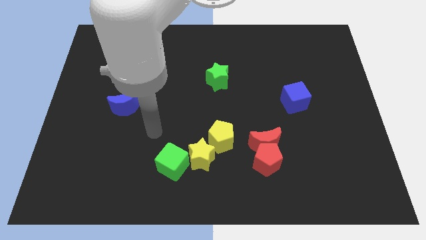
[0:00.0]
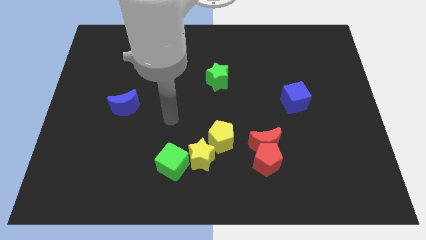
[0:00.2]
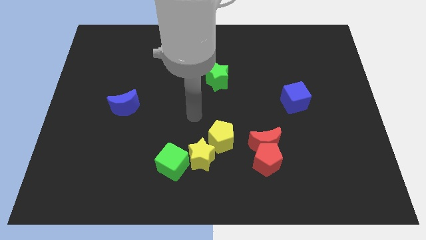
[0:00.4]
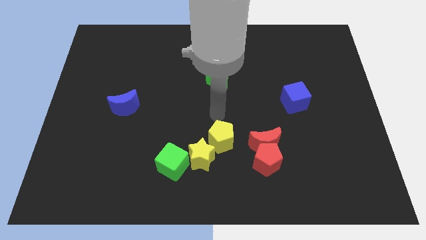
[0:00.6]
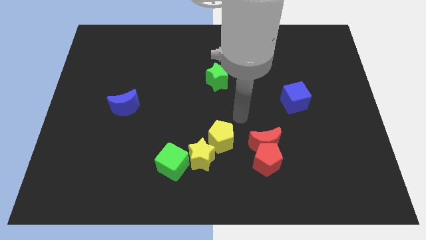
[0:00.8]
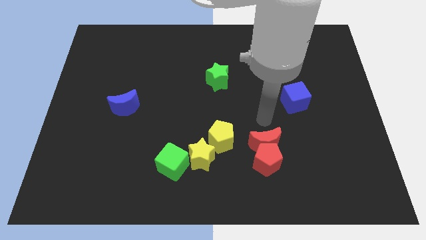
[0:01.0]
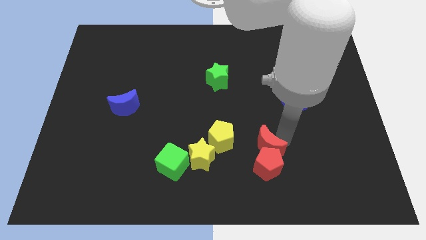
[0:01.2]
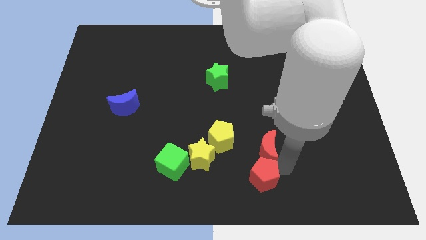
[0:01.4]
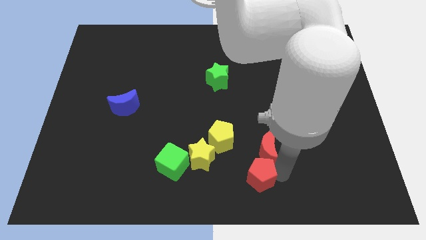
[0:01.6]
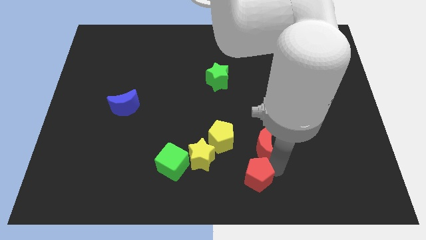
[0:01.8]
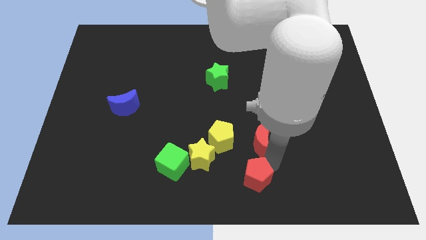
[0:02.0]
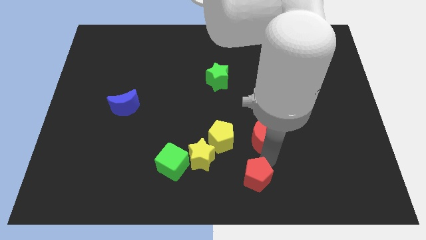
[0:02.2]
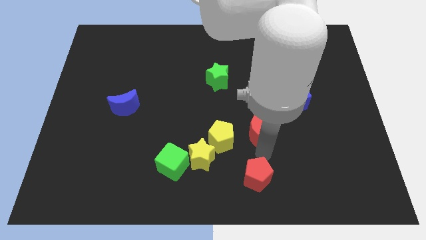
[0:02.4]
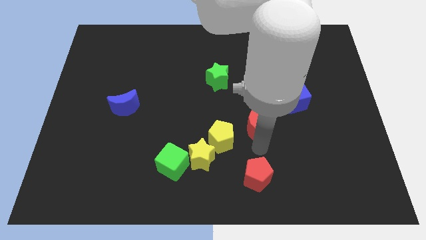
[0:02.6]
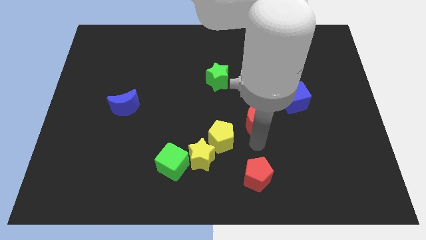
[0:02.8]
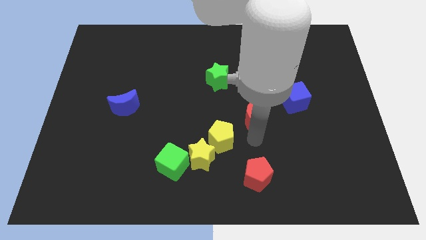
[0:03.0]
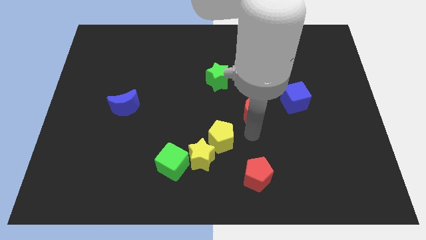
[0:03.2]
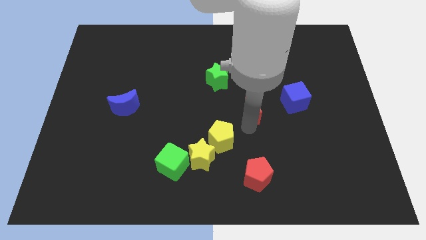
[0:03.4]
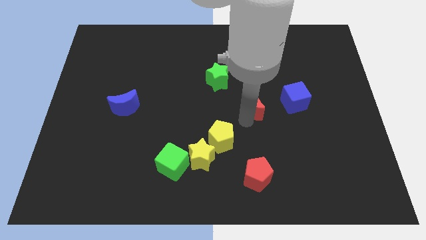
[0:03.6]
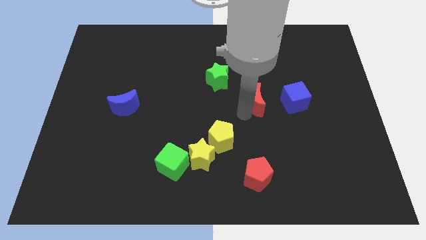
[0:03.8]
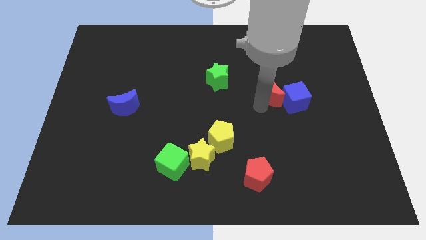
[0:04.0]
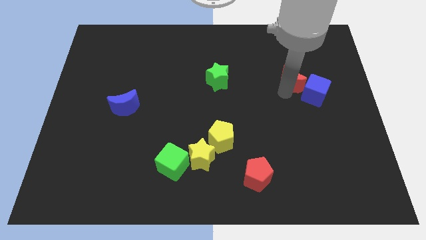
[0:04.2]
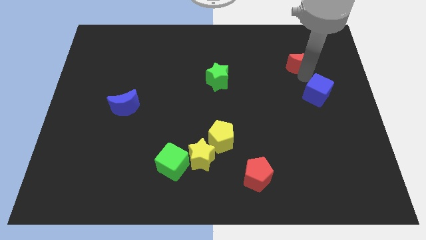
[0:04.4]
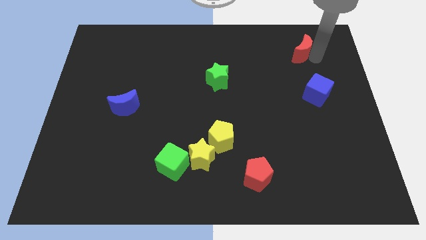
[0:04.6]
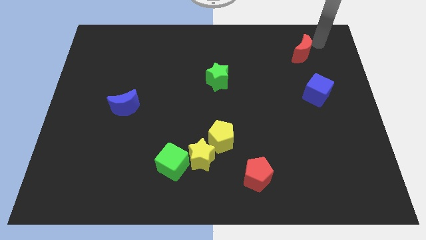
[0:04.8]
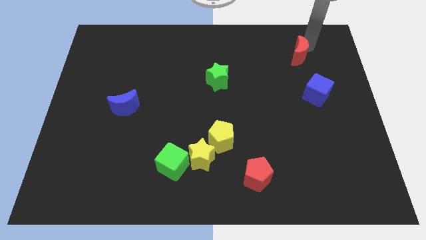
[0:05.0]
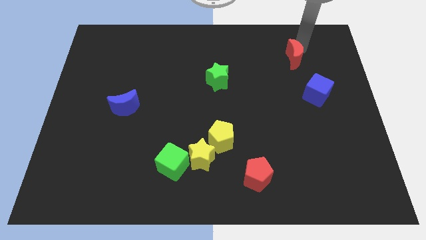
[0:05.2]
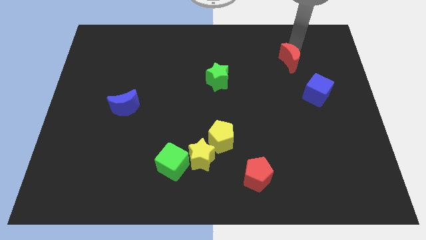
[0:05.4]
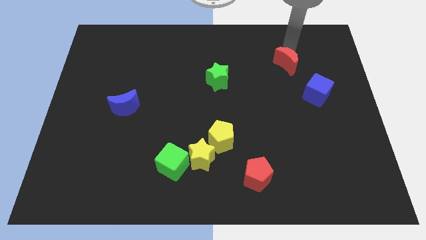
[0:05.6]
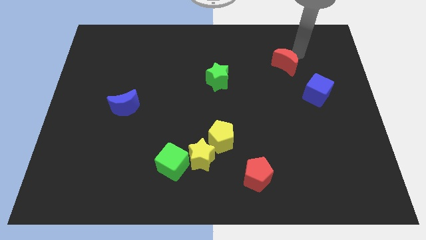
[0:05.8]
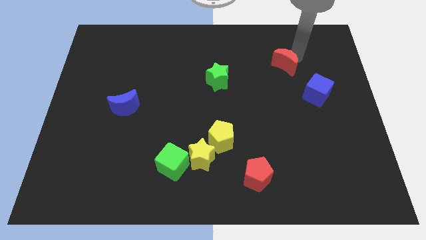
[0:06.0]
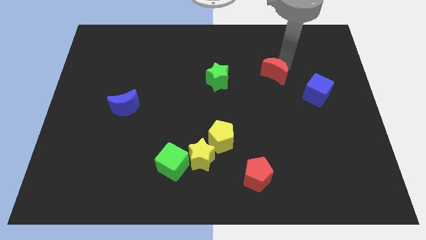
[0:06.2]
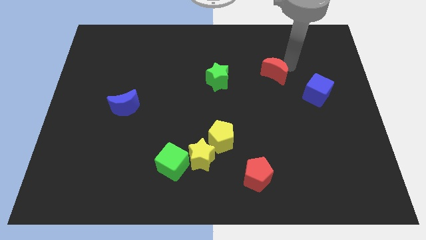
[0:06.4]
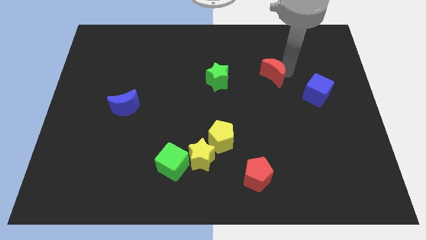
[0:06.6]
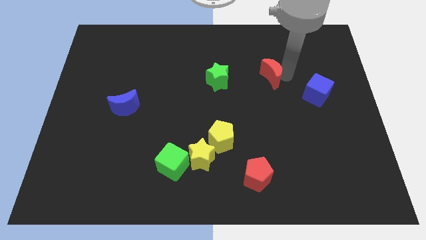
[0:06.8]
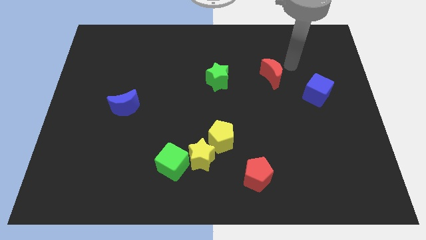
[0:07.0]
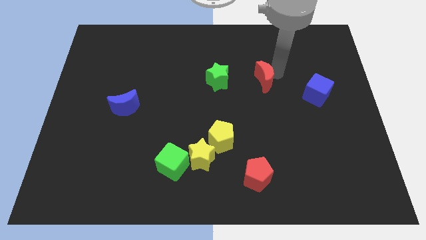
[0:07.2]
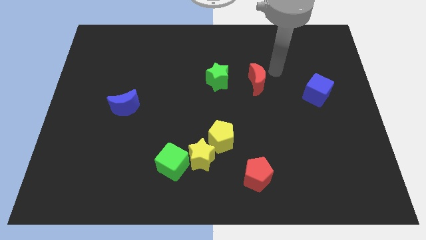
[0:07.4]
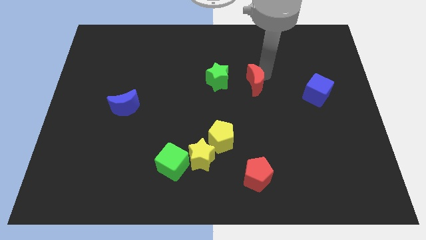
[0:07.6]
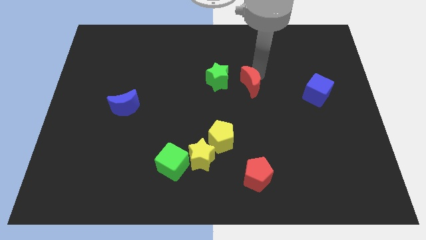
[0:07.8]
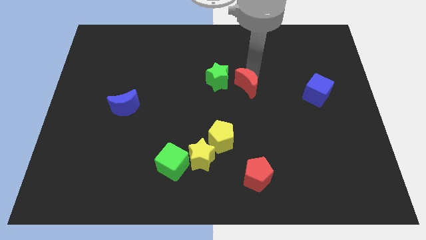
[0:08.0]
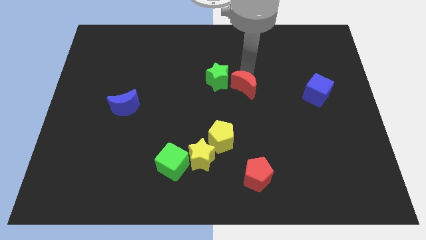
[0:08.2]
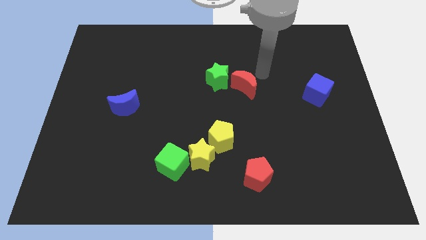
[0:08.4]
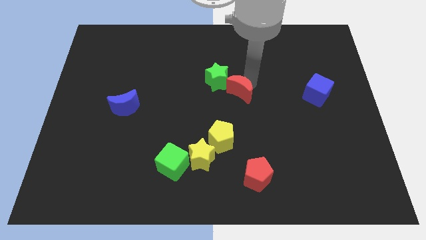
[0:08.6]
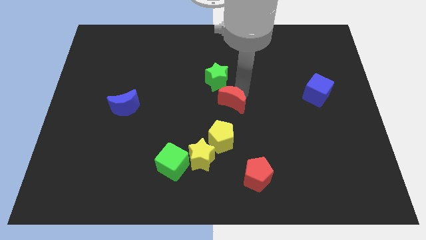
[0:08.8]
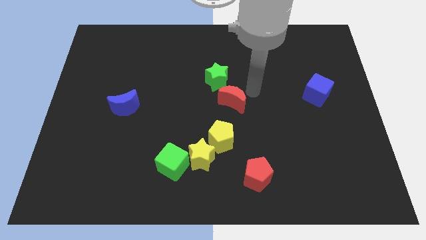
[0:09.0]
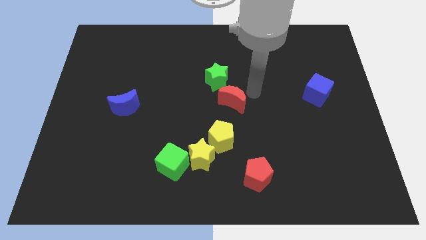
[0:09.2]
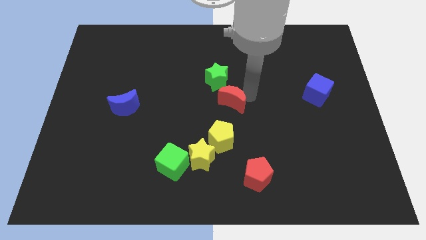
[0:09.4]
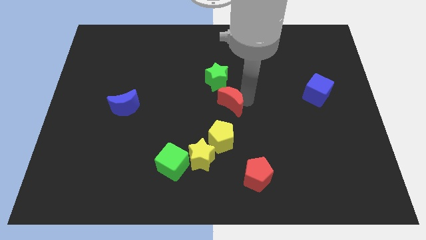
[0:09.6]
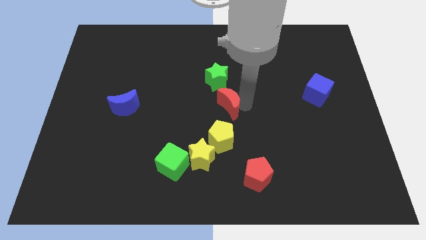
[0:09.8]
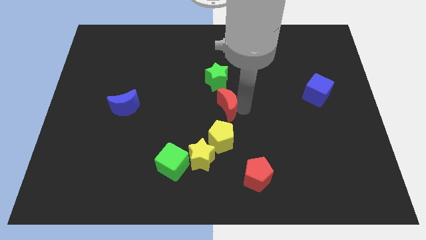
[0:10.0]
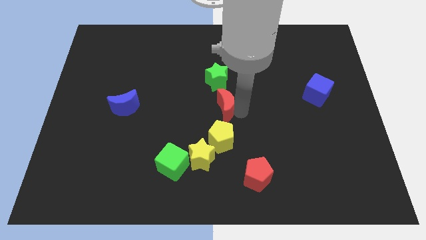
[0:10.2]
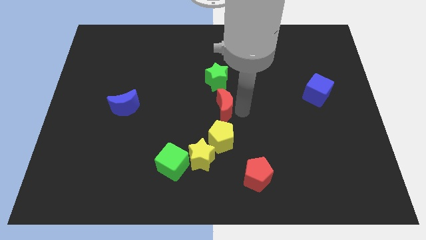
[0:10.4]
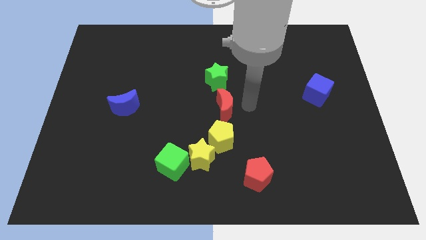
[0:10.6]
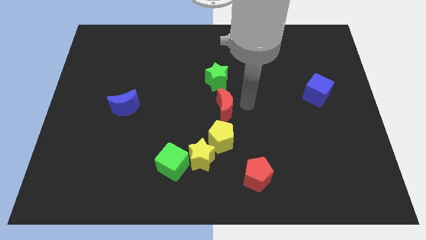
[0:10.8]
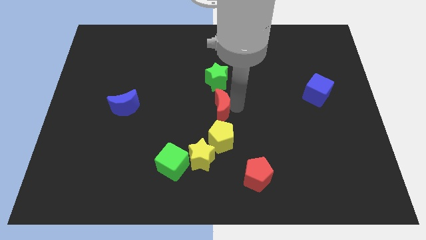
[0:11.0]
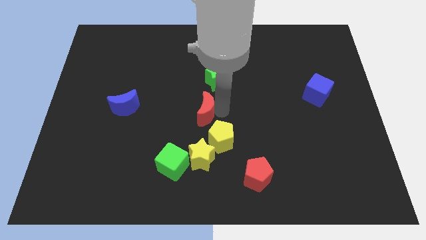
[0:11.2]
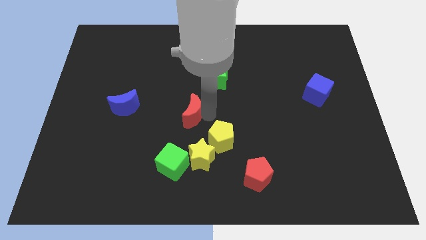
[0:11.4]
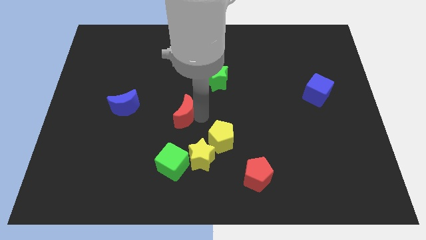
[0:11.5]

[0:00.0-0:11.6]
push the red moon to the right of the blue moon

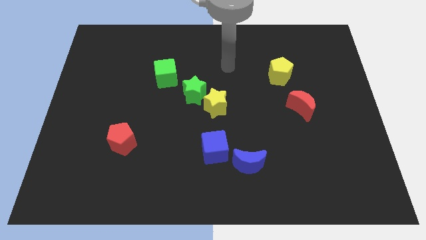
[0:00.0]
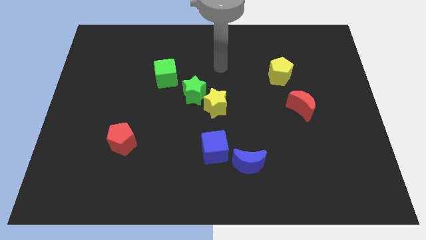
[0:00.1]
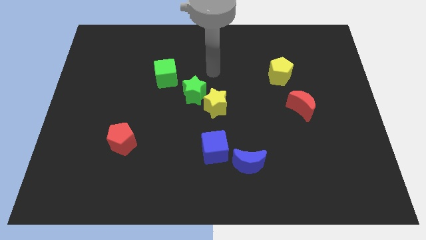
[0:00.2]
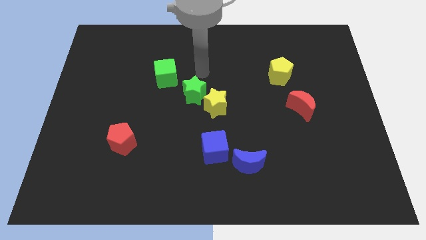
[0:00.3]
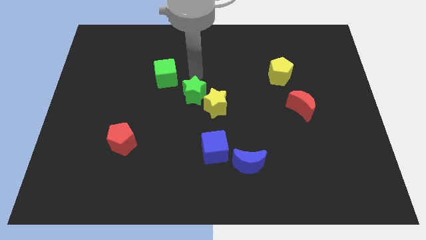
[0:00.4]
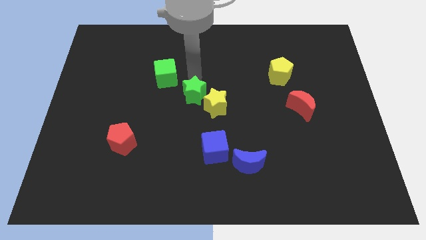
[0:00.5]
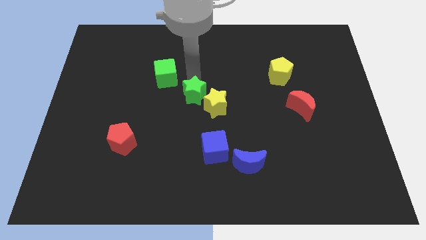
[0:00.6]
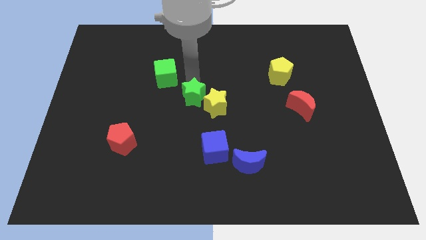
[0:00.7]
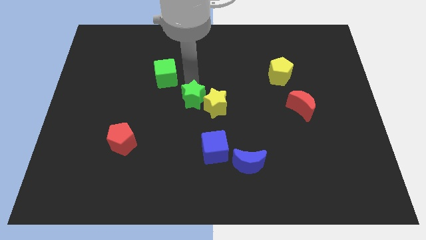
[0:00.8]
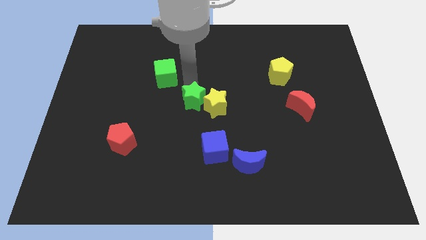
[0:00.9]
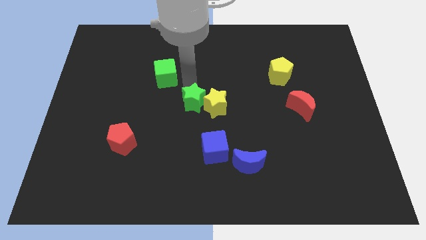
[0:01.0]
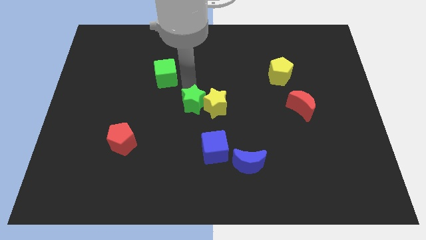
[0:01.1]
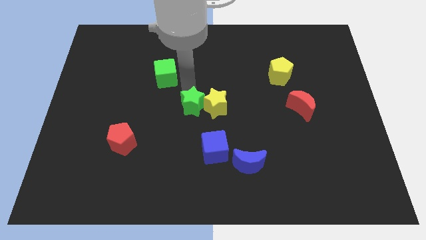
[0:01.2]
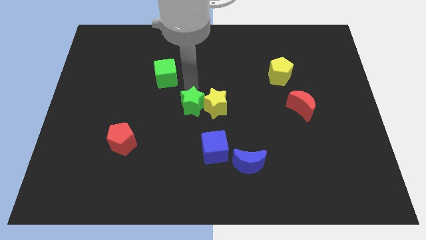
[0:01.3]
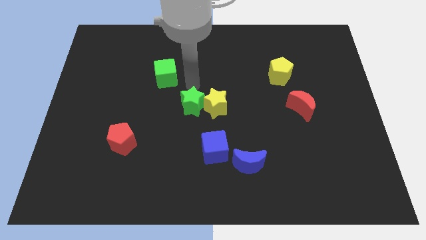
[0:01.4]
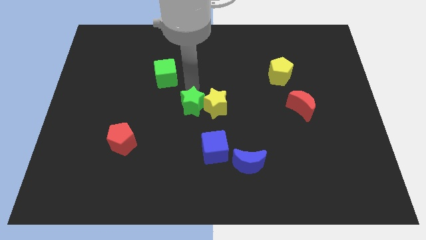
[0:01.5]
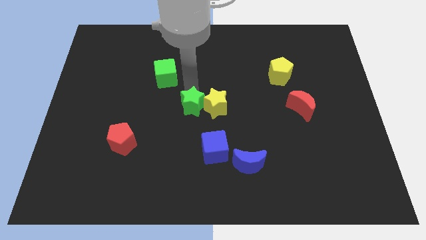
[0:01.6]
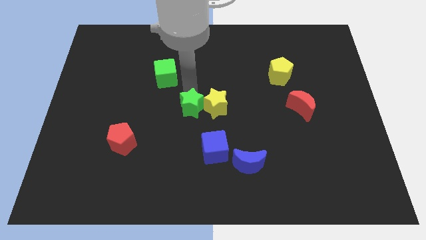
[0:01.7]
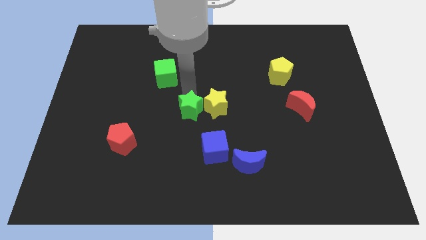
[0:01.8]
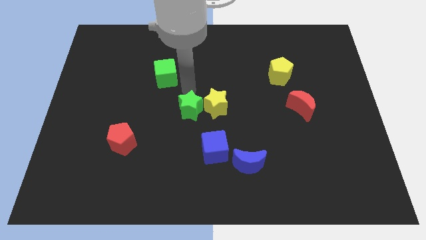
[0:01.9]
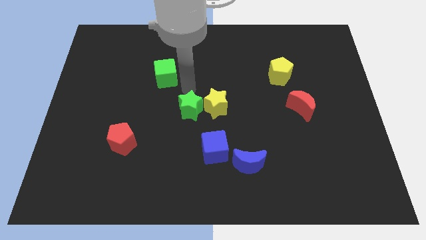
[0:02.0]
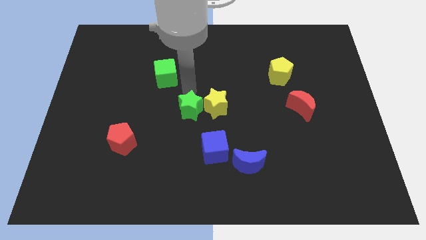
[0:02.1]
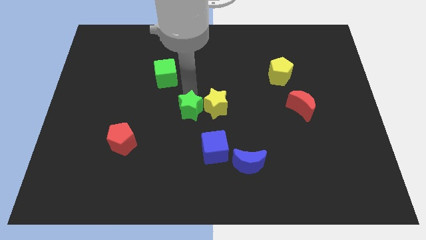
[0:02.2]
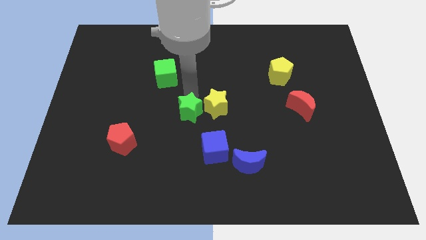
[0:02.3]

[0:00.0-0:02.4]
push the green star to the top left of the blue cube
